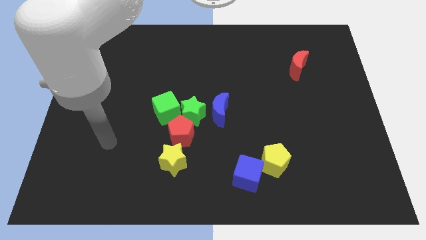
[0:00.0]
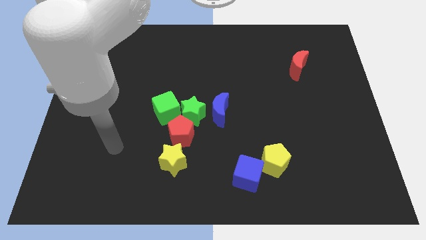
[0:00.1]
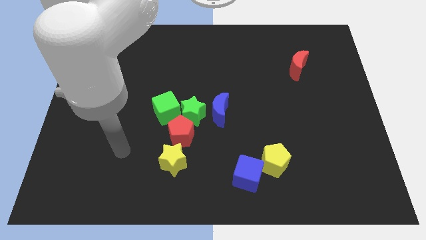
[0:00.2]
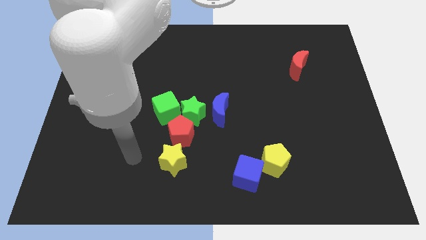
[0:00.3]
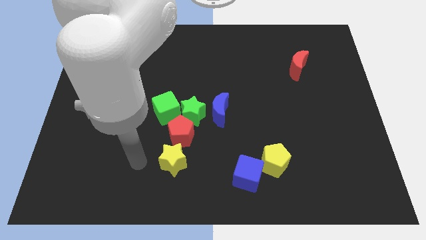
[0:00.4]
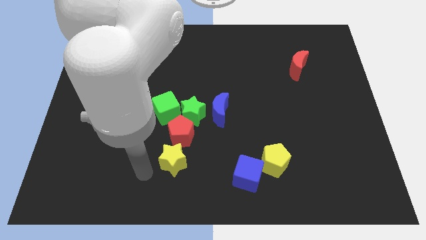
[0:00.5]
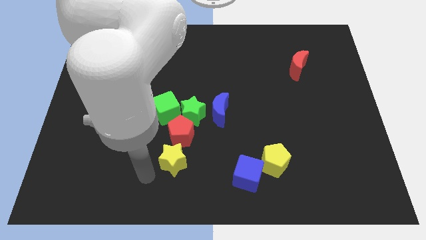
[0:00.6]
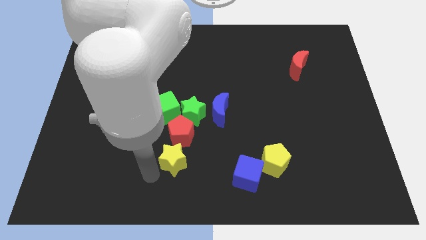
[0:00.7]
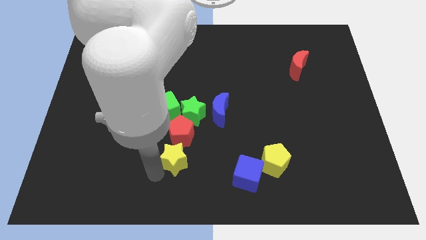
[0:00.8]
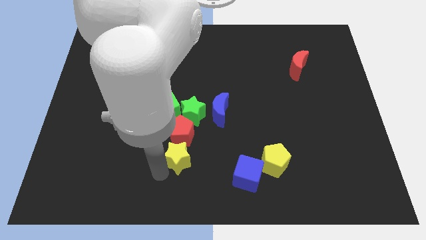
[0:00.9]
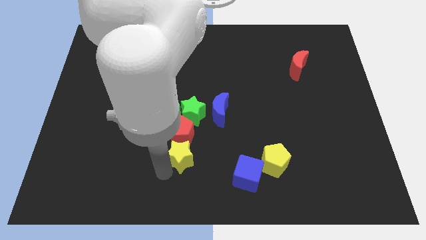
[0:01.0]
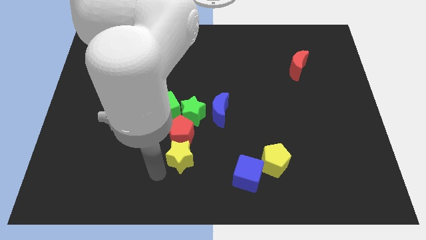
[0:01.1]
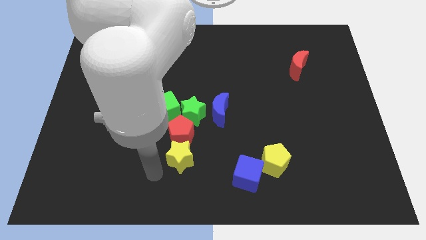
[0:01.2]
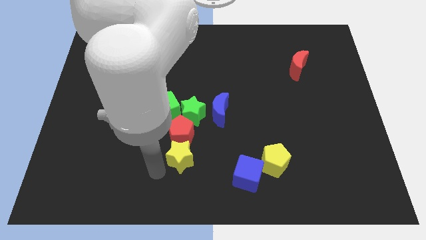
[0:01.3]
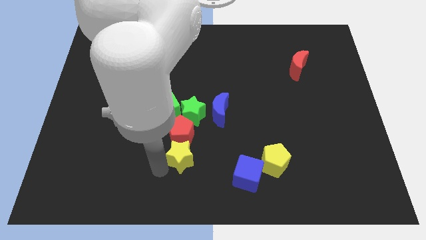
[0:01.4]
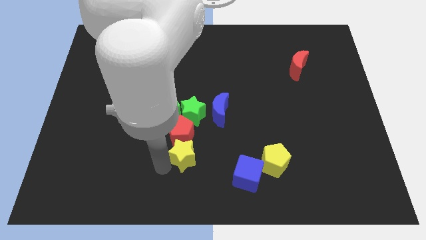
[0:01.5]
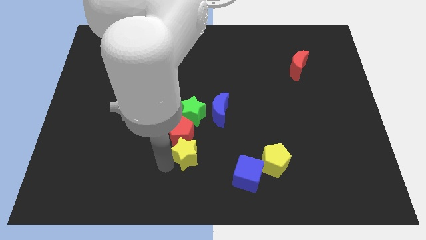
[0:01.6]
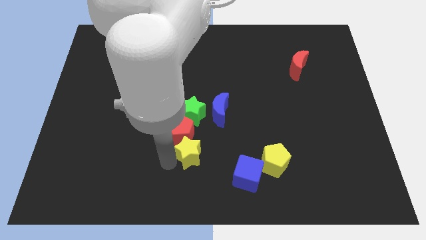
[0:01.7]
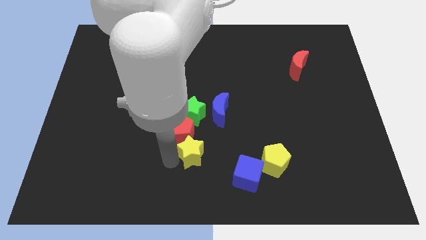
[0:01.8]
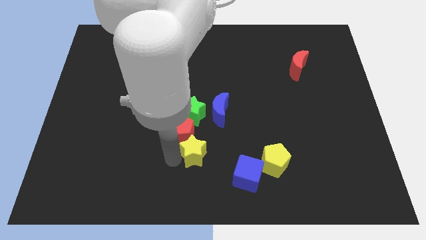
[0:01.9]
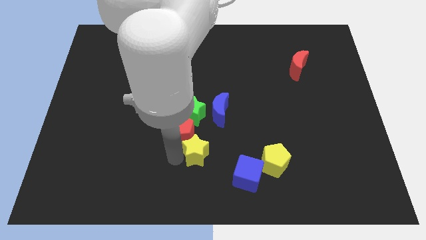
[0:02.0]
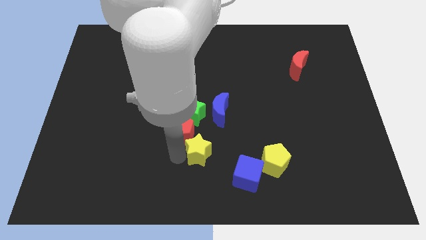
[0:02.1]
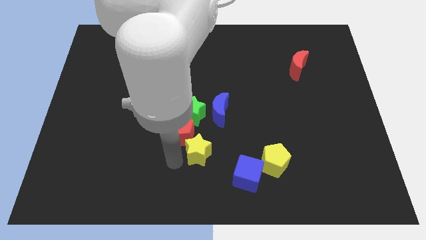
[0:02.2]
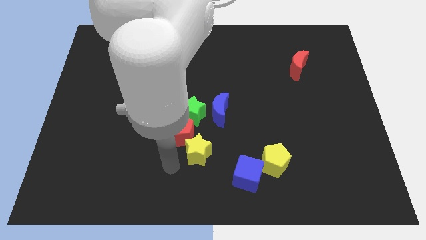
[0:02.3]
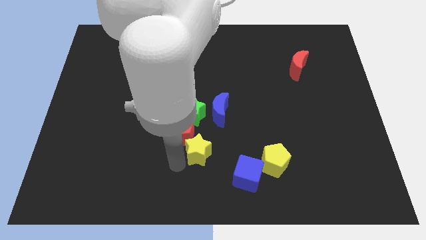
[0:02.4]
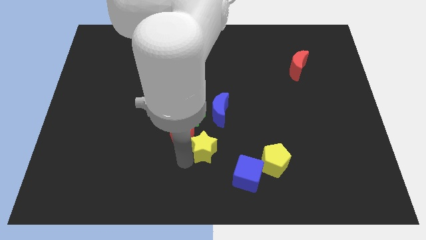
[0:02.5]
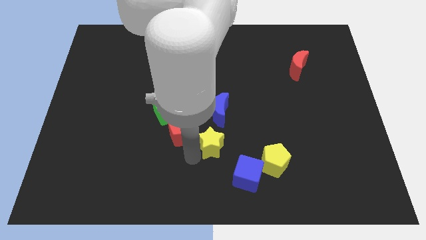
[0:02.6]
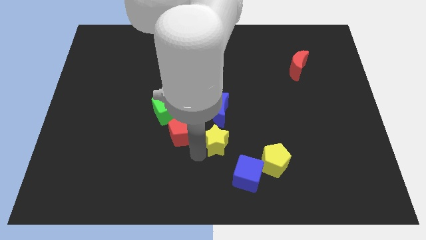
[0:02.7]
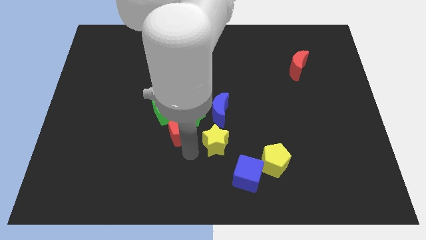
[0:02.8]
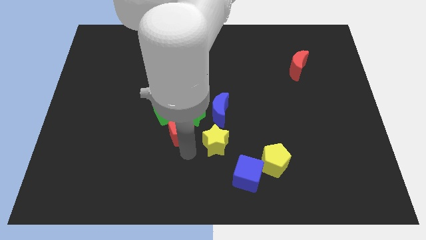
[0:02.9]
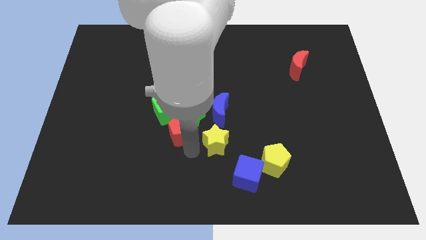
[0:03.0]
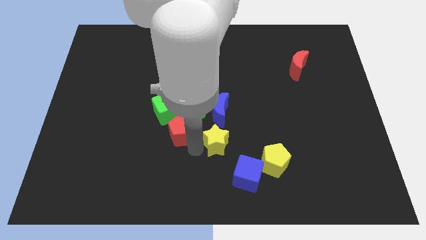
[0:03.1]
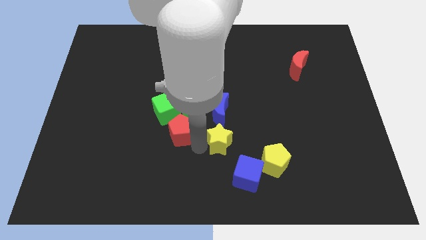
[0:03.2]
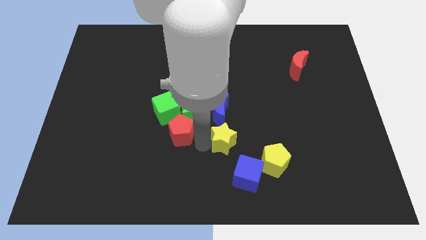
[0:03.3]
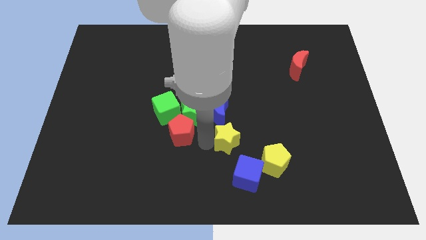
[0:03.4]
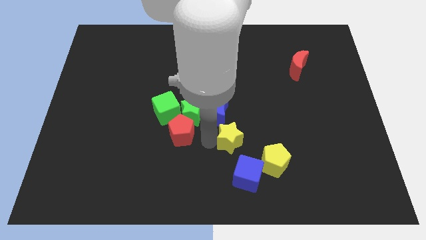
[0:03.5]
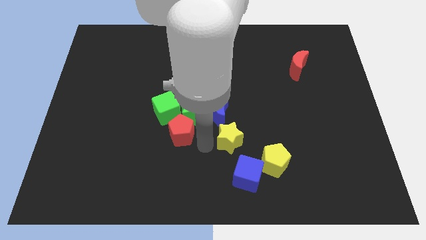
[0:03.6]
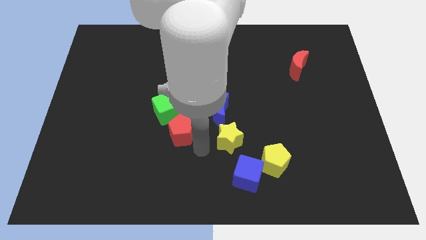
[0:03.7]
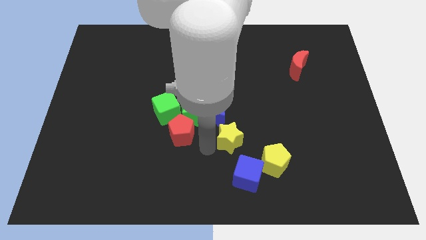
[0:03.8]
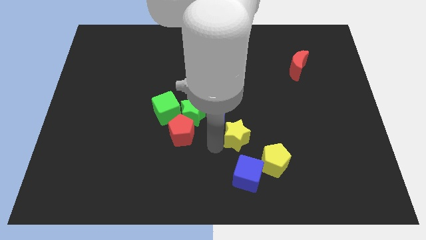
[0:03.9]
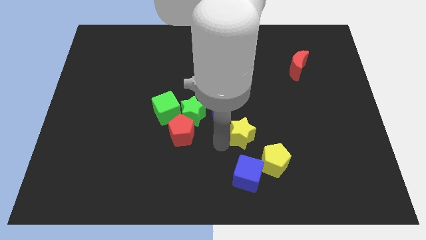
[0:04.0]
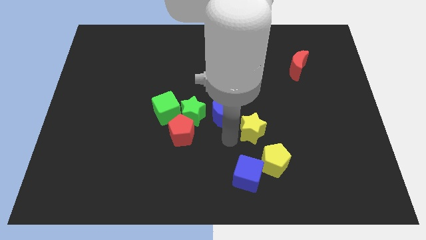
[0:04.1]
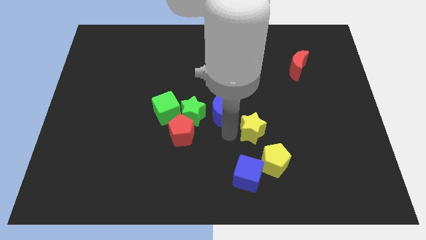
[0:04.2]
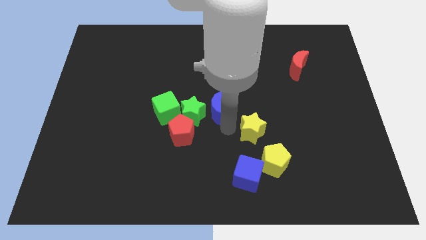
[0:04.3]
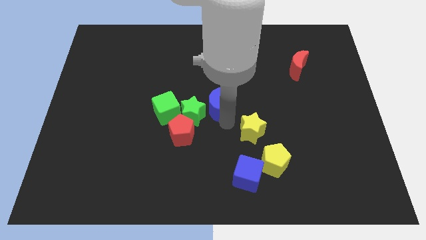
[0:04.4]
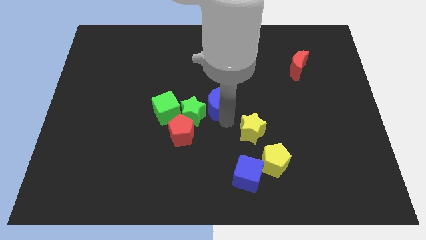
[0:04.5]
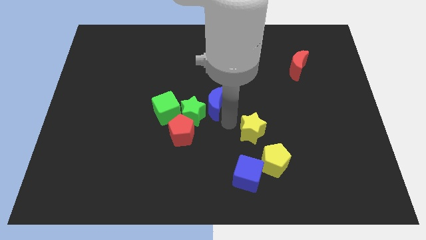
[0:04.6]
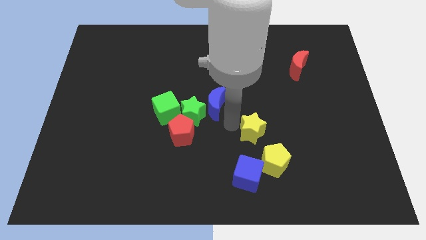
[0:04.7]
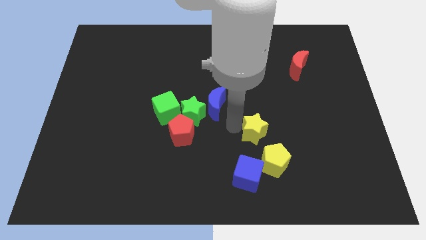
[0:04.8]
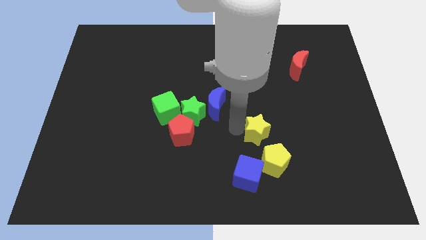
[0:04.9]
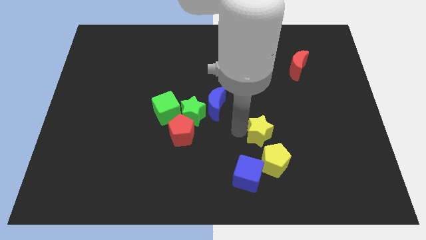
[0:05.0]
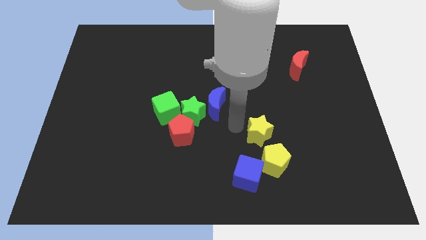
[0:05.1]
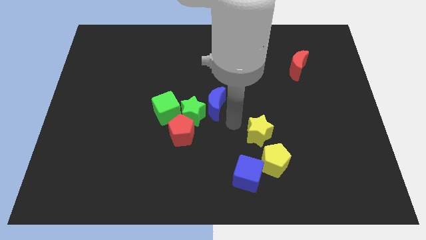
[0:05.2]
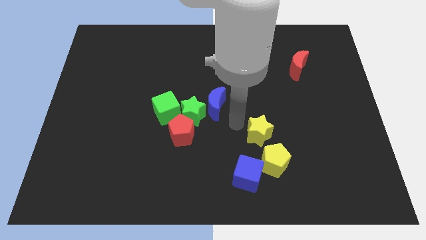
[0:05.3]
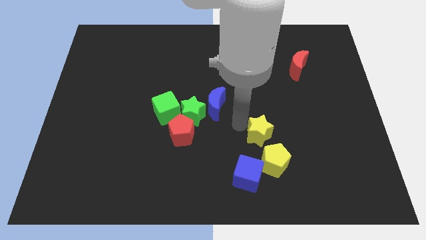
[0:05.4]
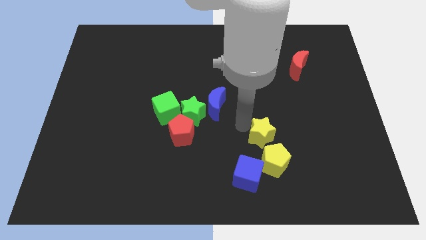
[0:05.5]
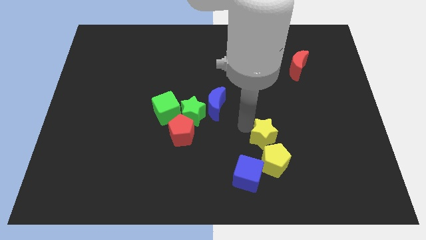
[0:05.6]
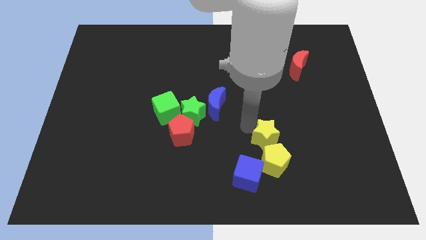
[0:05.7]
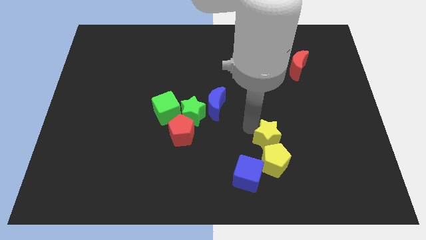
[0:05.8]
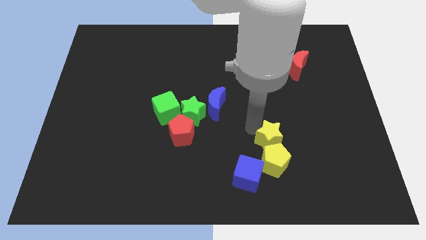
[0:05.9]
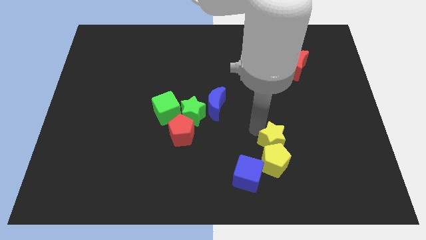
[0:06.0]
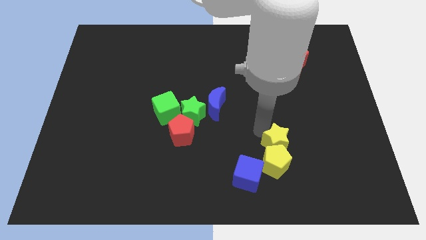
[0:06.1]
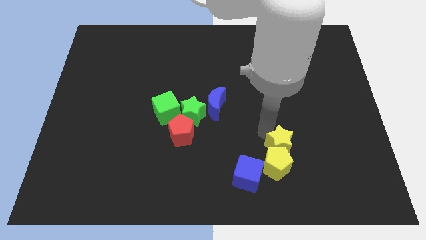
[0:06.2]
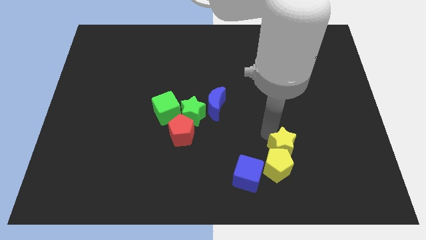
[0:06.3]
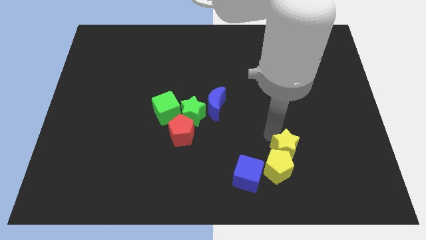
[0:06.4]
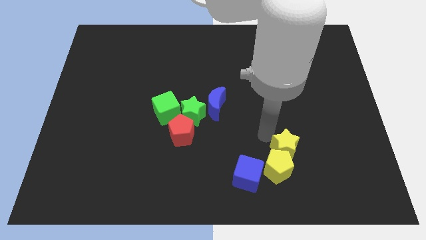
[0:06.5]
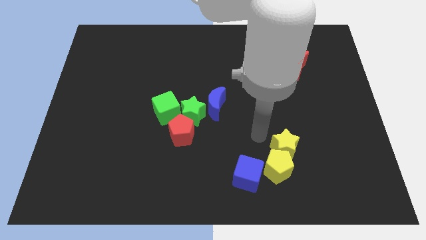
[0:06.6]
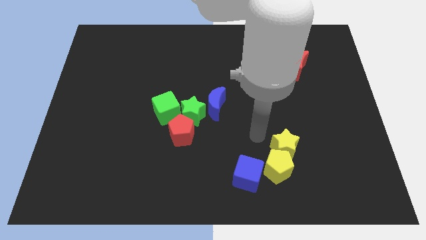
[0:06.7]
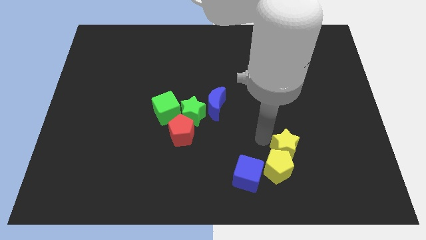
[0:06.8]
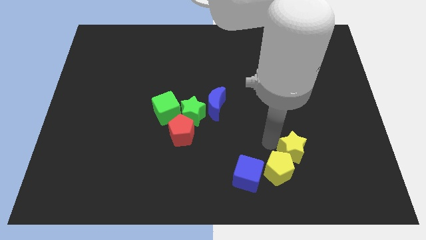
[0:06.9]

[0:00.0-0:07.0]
move the yellow star to the right of the yellow pentagon

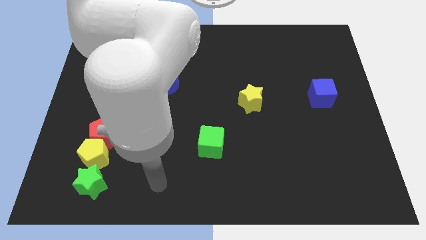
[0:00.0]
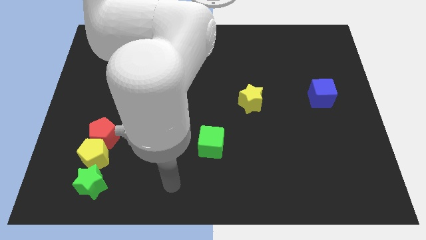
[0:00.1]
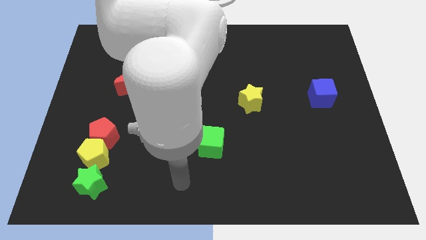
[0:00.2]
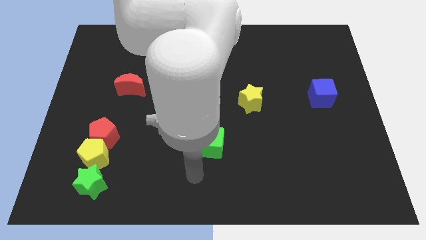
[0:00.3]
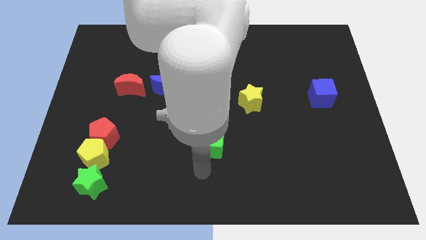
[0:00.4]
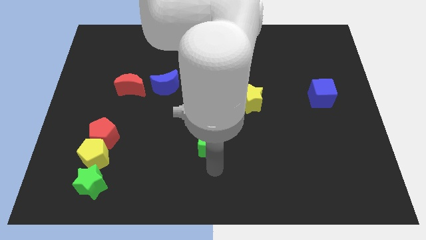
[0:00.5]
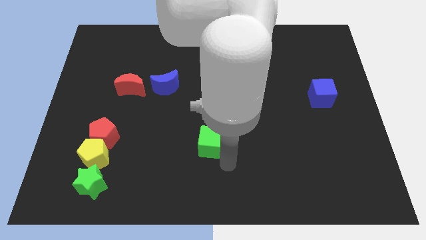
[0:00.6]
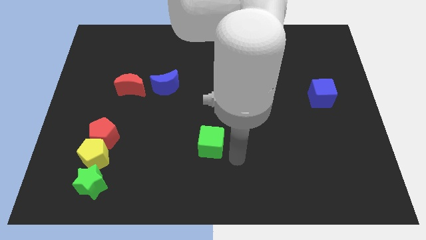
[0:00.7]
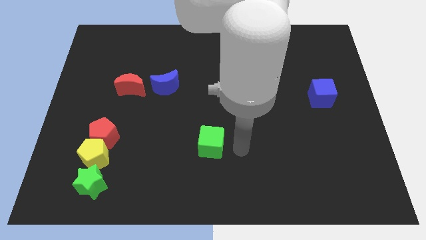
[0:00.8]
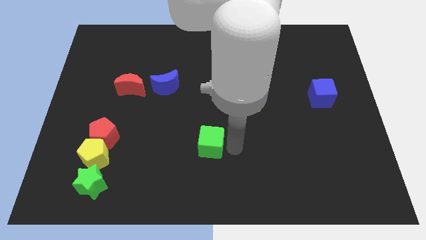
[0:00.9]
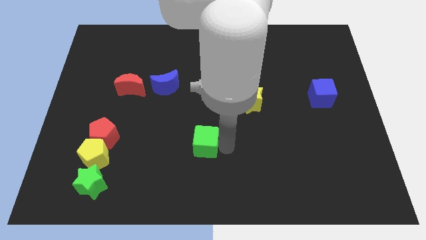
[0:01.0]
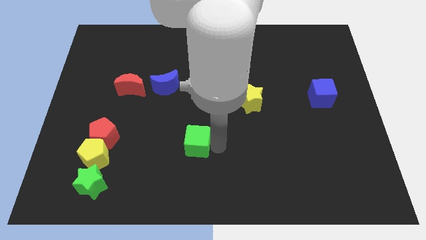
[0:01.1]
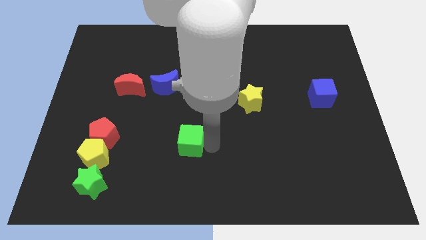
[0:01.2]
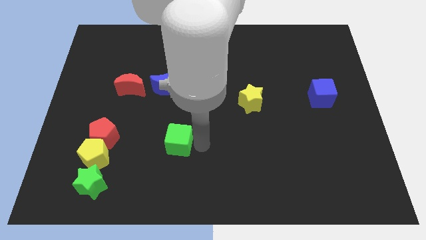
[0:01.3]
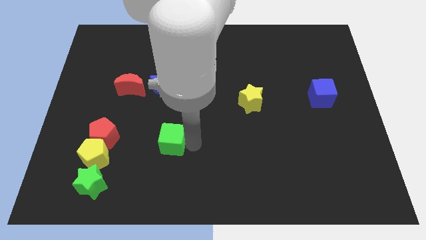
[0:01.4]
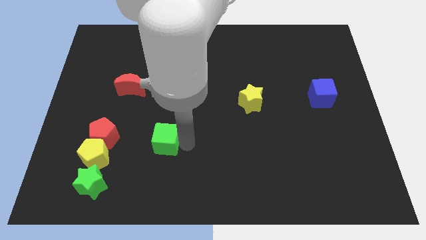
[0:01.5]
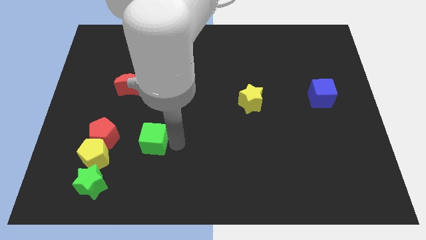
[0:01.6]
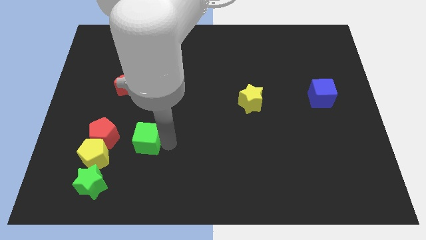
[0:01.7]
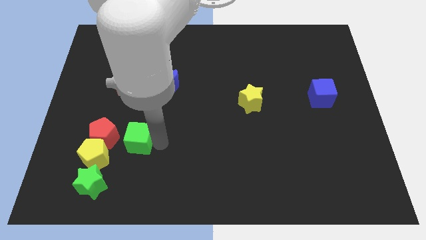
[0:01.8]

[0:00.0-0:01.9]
push the green cube to the top right of the yellow pentagon
